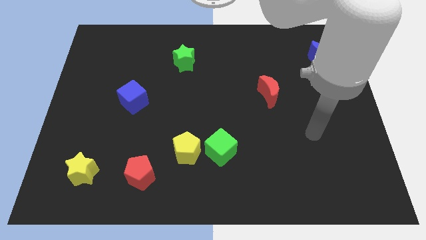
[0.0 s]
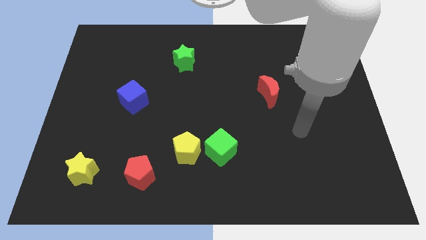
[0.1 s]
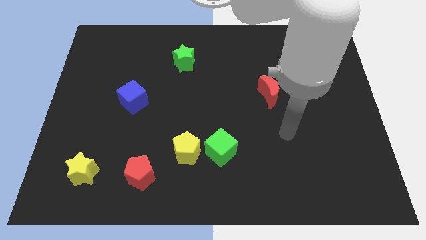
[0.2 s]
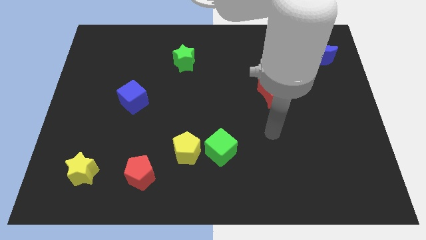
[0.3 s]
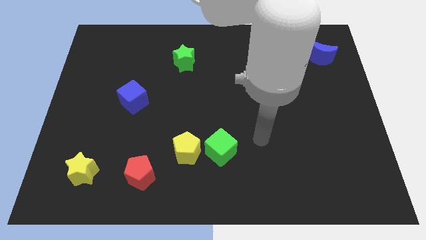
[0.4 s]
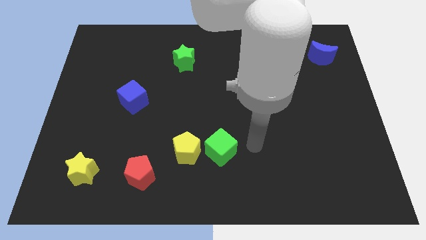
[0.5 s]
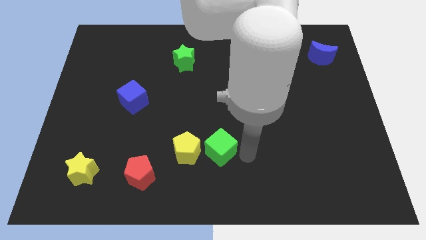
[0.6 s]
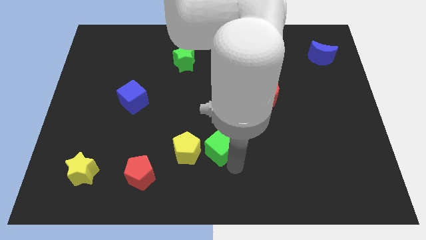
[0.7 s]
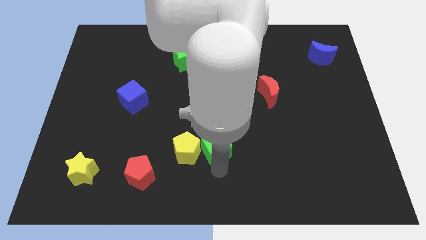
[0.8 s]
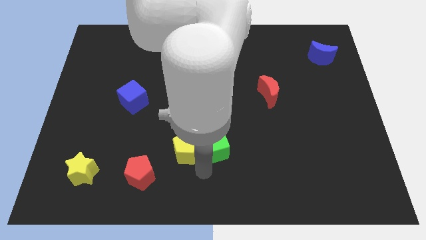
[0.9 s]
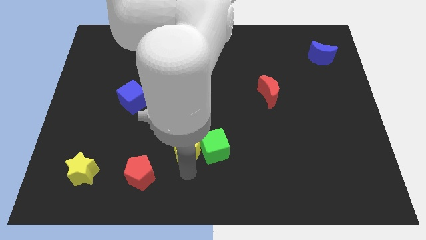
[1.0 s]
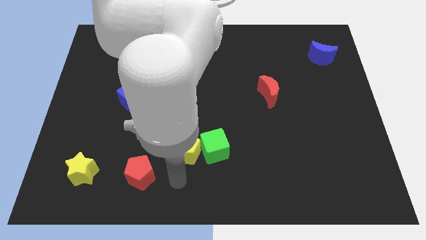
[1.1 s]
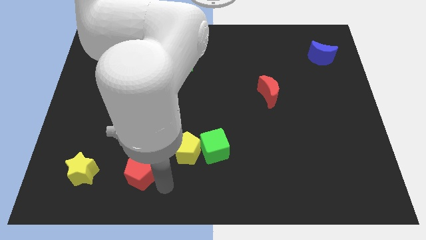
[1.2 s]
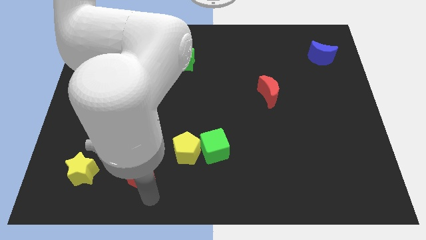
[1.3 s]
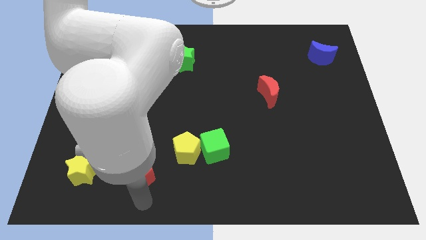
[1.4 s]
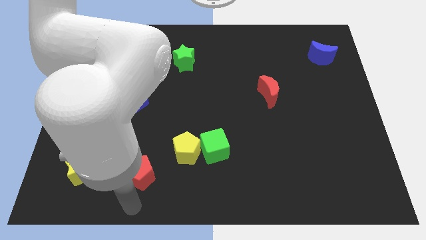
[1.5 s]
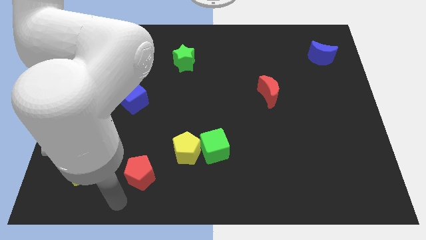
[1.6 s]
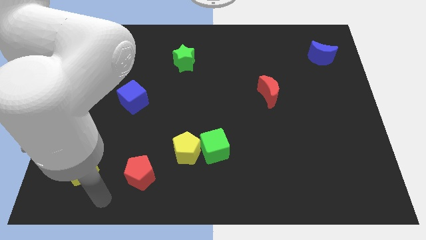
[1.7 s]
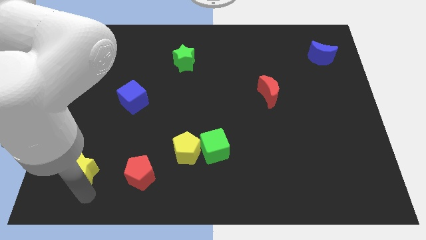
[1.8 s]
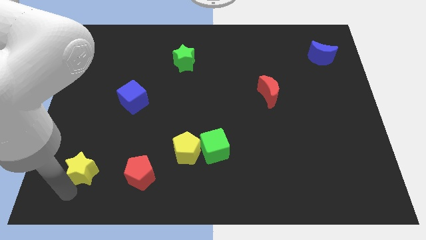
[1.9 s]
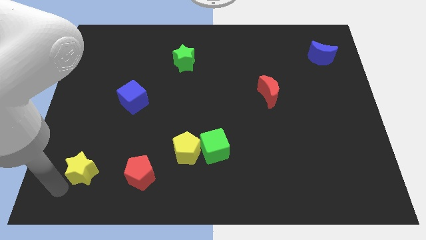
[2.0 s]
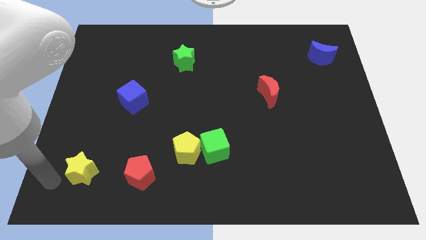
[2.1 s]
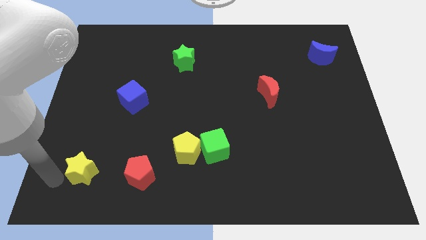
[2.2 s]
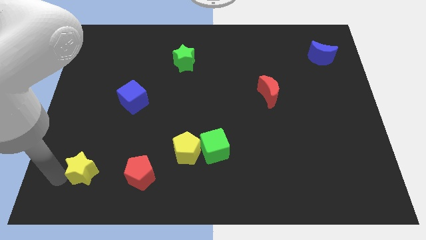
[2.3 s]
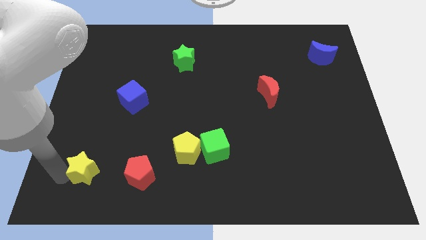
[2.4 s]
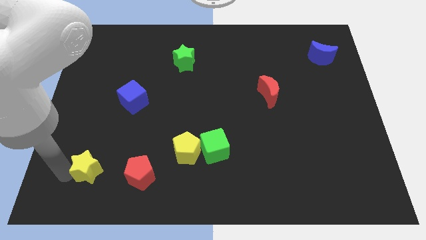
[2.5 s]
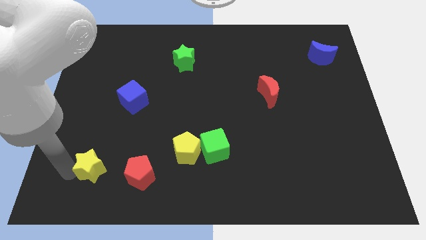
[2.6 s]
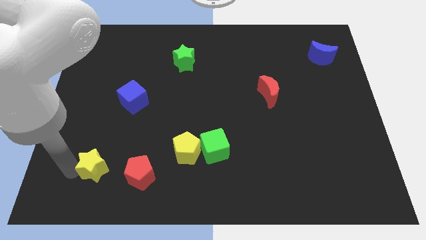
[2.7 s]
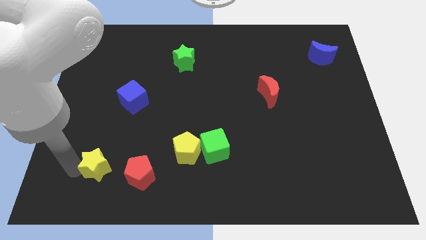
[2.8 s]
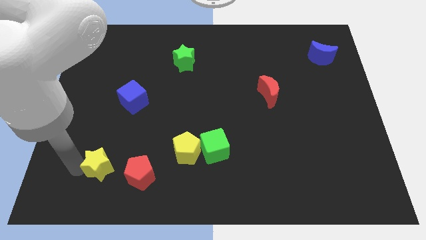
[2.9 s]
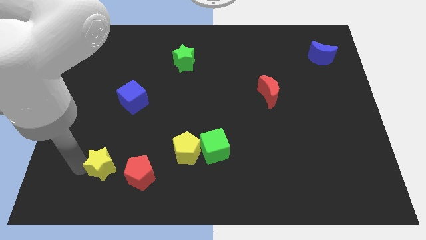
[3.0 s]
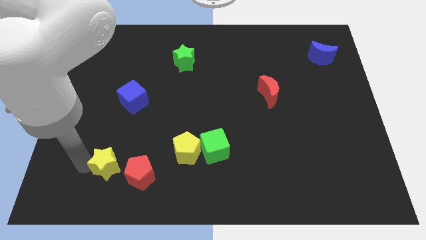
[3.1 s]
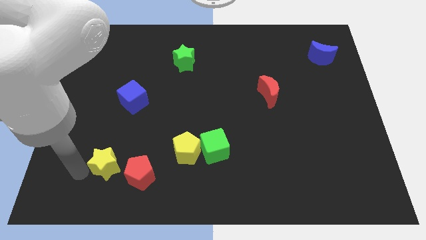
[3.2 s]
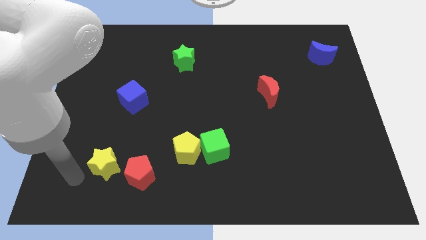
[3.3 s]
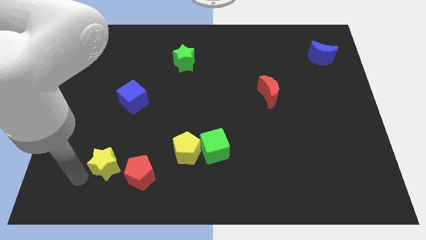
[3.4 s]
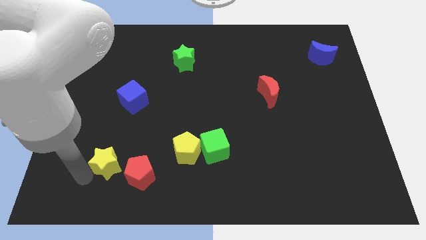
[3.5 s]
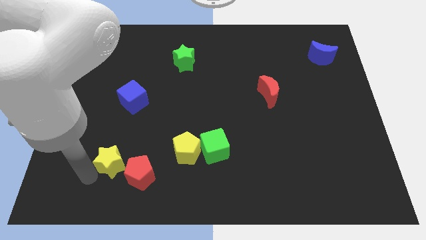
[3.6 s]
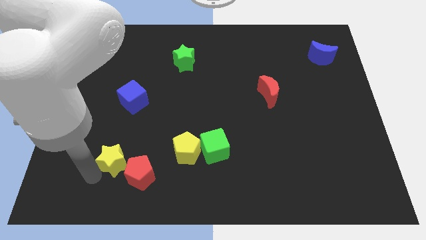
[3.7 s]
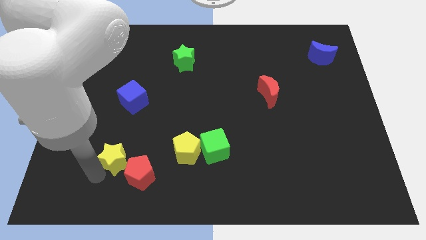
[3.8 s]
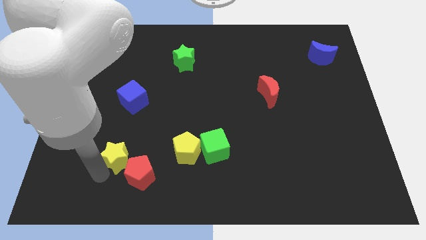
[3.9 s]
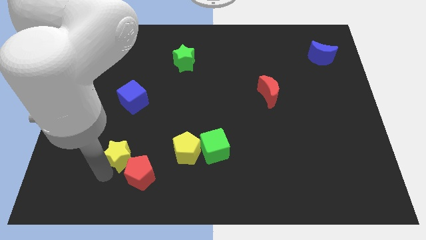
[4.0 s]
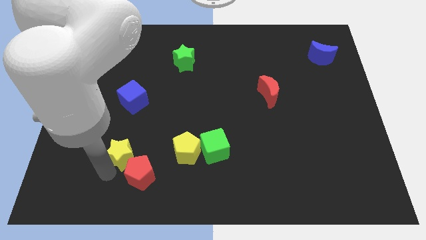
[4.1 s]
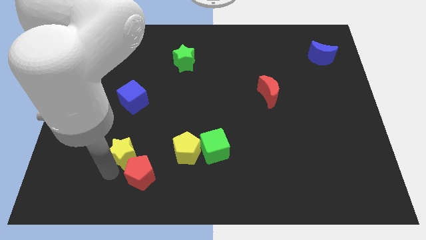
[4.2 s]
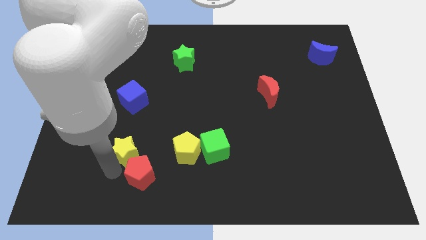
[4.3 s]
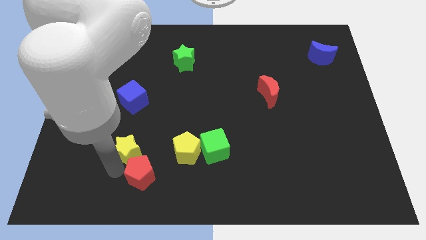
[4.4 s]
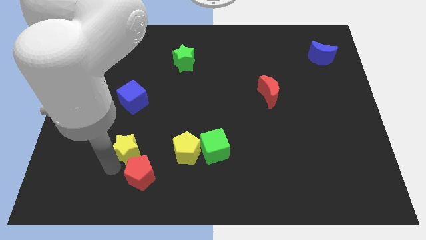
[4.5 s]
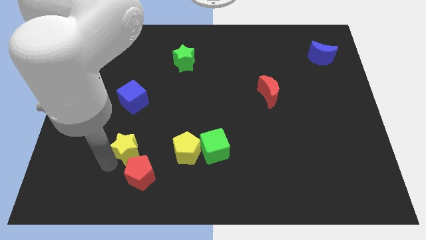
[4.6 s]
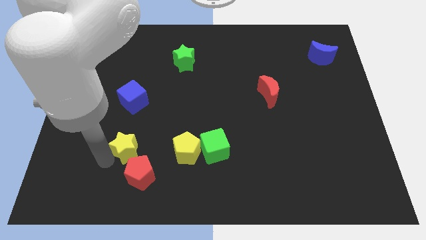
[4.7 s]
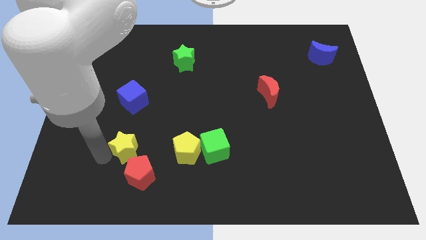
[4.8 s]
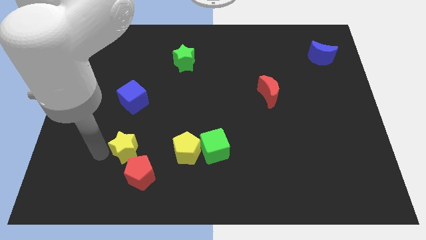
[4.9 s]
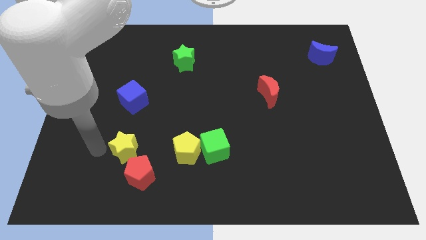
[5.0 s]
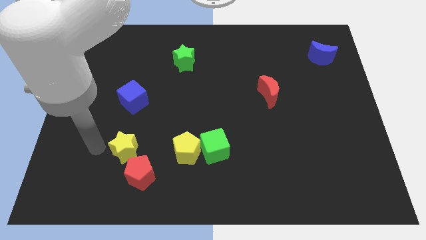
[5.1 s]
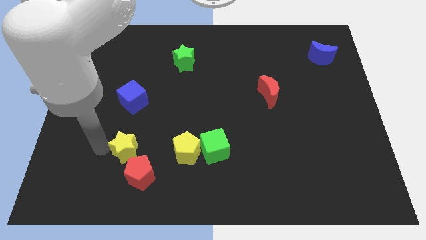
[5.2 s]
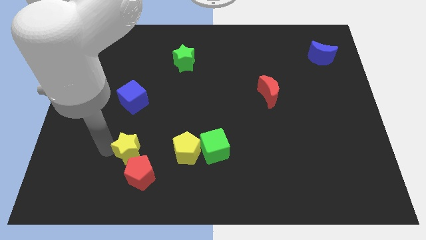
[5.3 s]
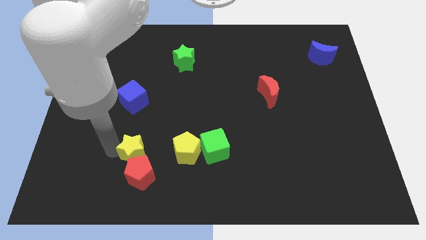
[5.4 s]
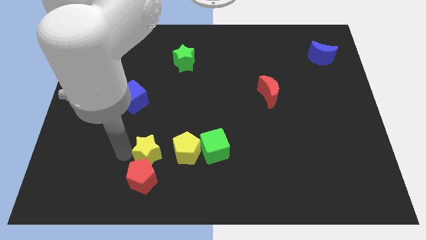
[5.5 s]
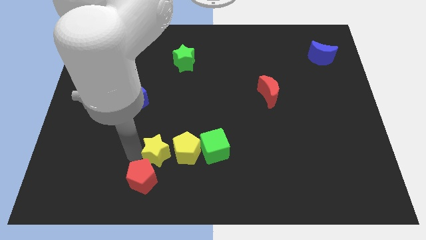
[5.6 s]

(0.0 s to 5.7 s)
slide the yellow star close to the yellow pentagon

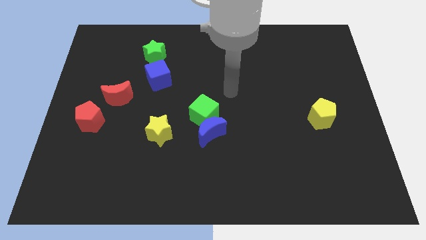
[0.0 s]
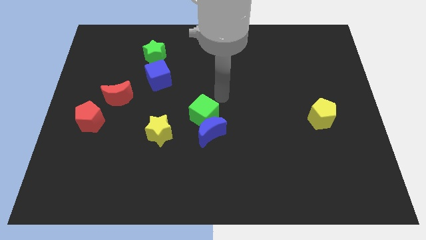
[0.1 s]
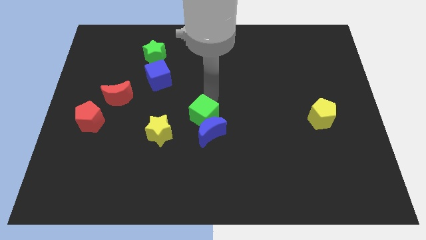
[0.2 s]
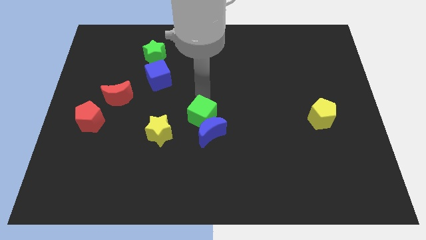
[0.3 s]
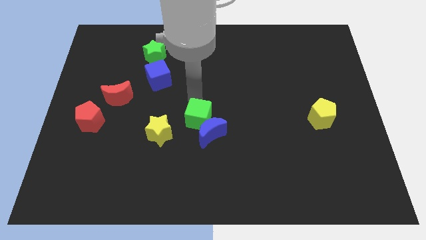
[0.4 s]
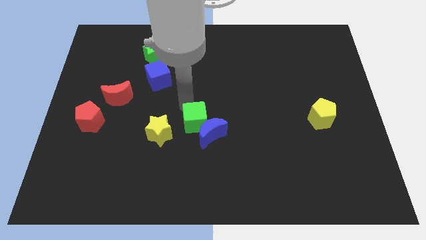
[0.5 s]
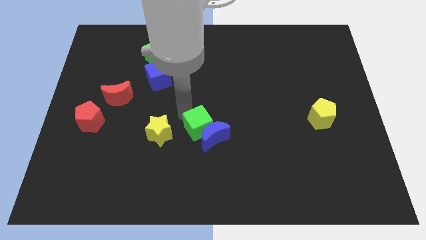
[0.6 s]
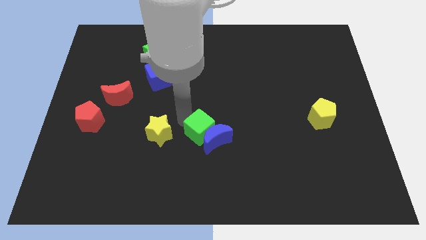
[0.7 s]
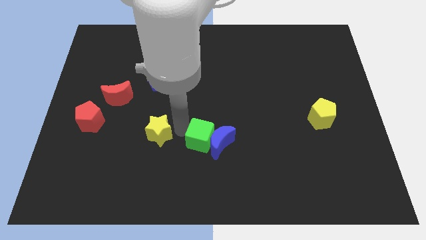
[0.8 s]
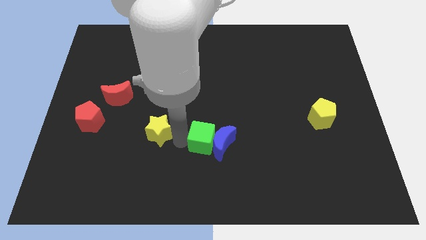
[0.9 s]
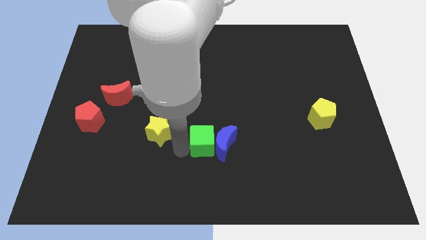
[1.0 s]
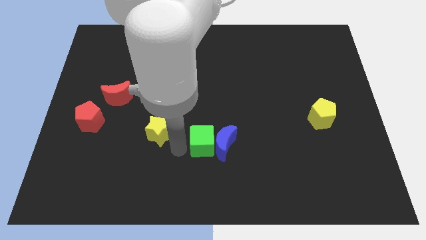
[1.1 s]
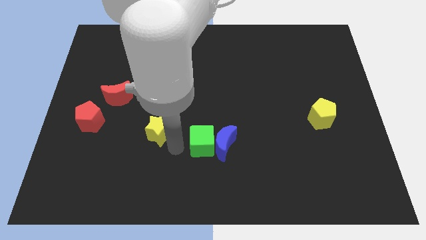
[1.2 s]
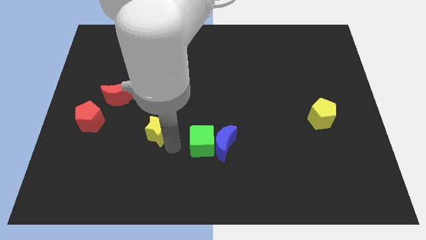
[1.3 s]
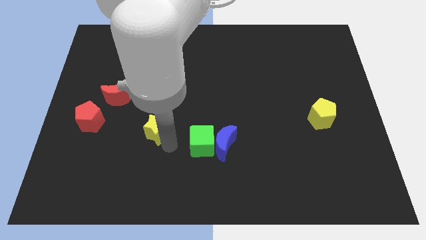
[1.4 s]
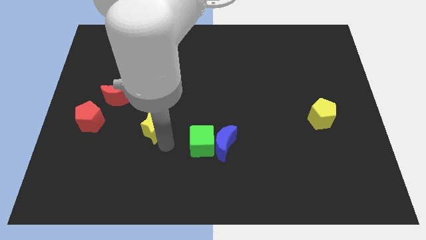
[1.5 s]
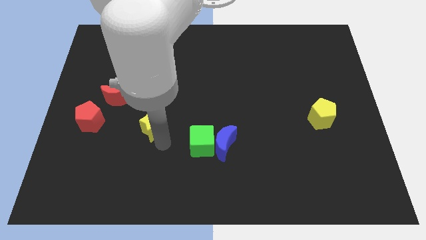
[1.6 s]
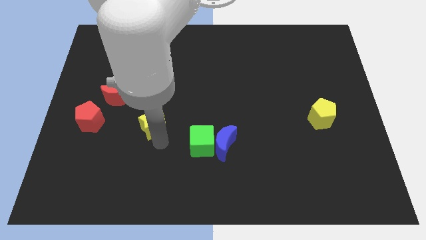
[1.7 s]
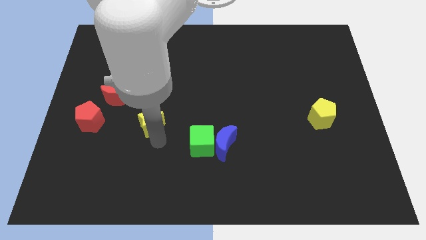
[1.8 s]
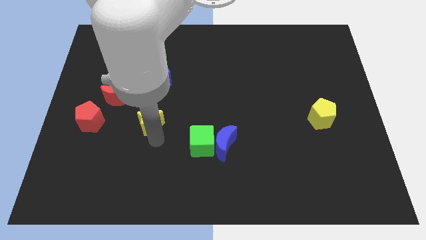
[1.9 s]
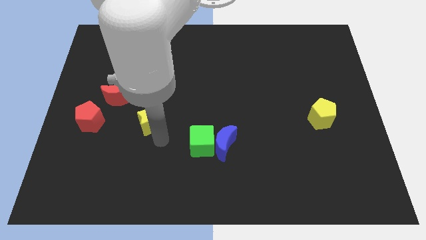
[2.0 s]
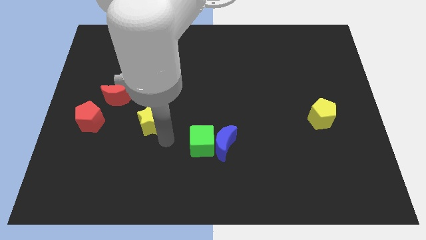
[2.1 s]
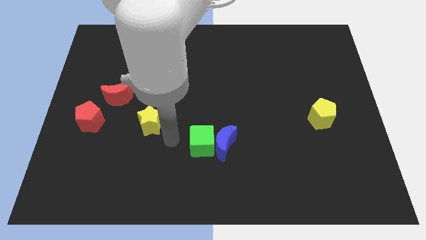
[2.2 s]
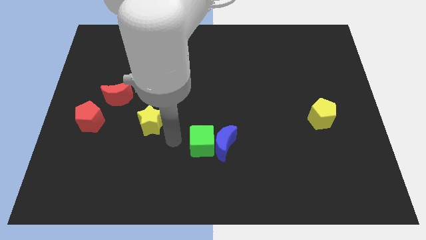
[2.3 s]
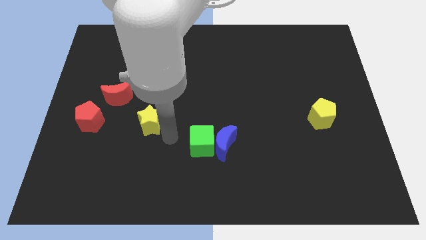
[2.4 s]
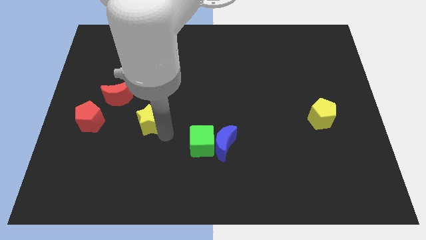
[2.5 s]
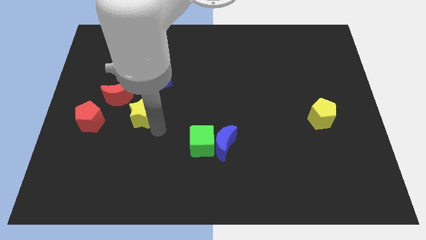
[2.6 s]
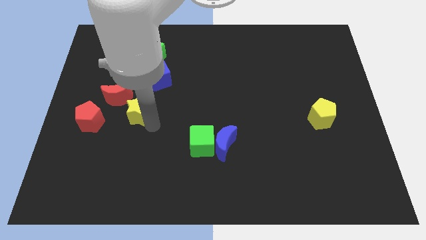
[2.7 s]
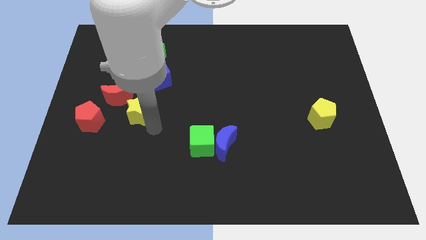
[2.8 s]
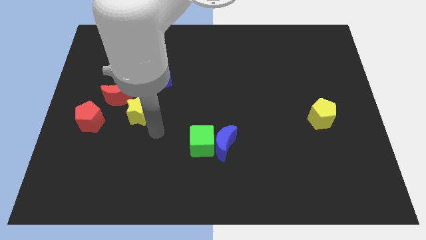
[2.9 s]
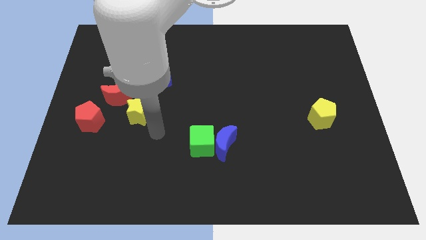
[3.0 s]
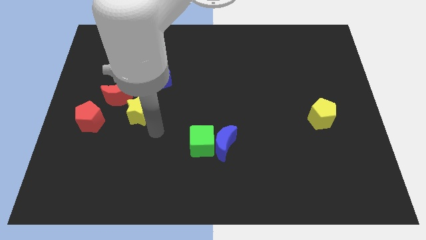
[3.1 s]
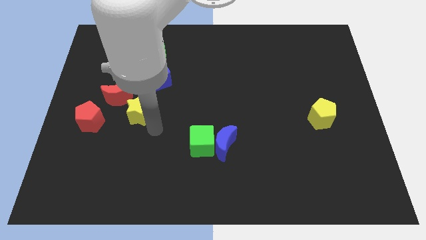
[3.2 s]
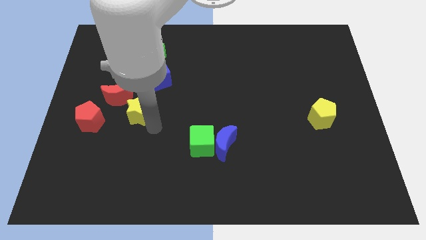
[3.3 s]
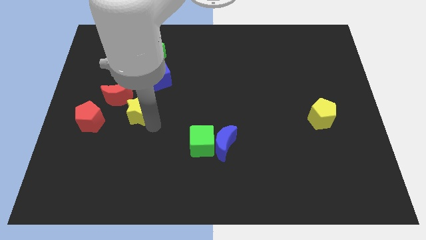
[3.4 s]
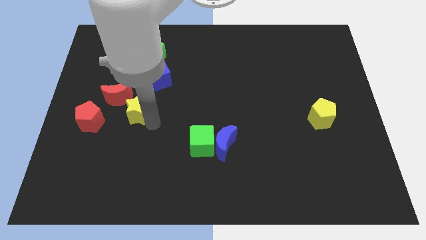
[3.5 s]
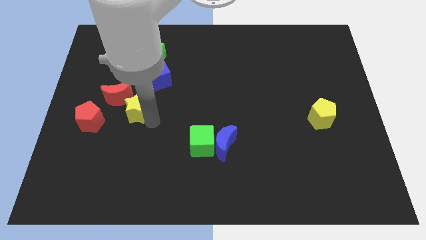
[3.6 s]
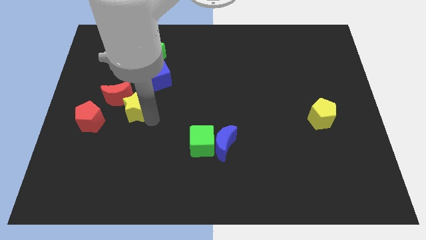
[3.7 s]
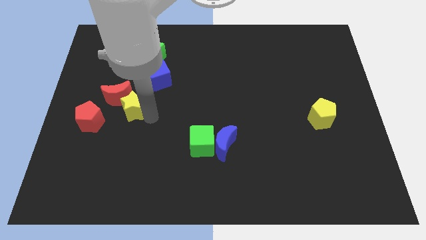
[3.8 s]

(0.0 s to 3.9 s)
put the yellow star towards the red moon
